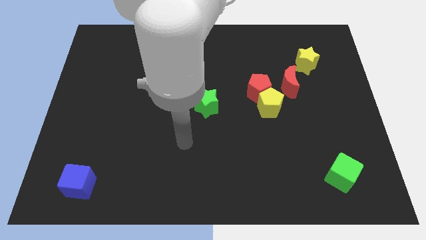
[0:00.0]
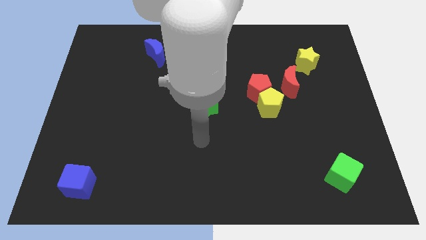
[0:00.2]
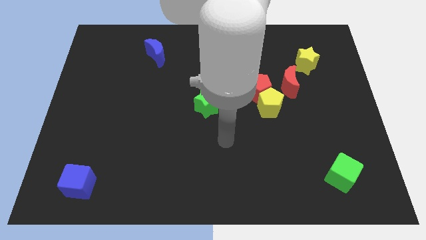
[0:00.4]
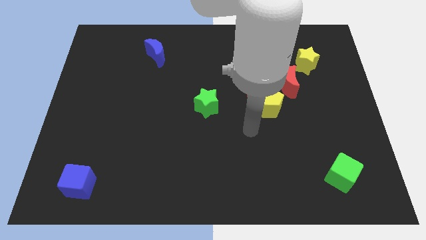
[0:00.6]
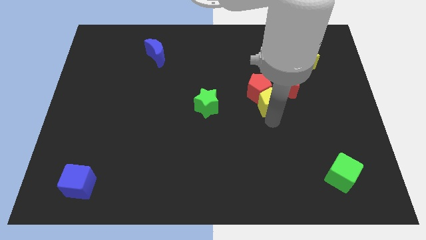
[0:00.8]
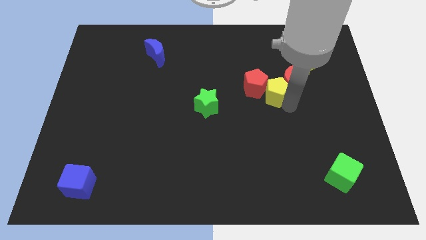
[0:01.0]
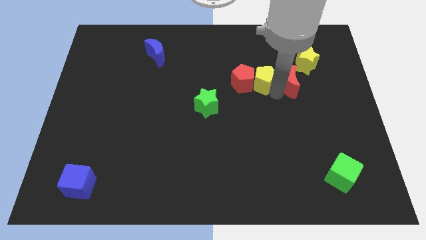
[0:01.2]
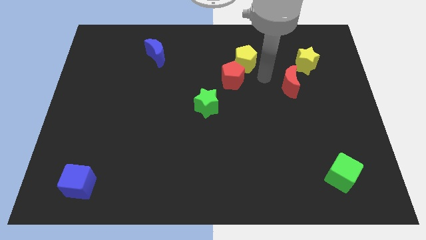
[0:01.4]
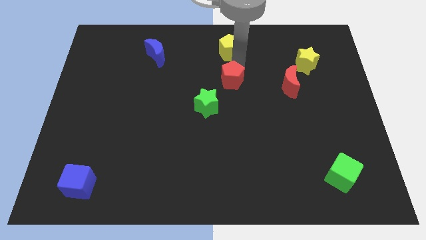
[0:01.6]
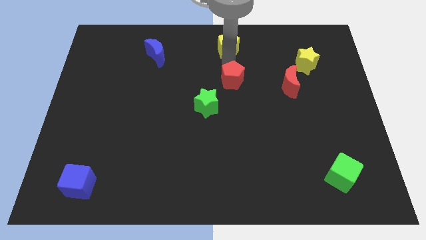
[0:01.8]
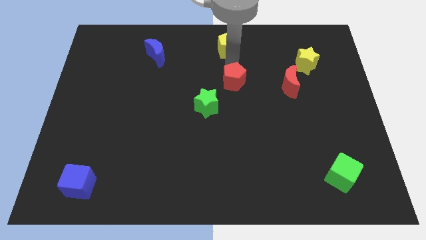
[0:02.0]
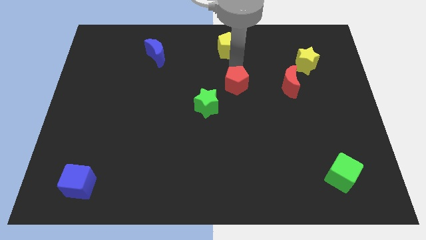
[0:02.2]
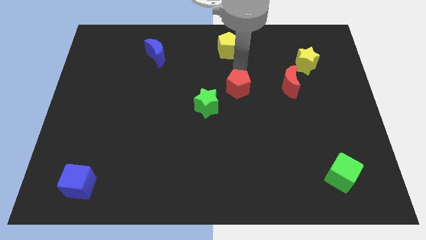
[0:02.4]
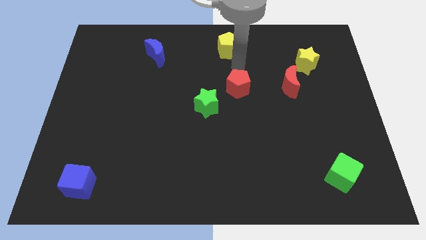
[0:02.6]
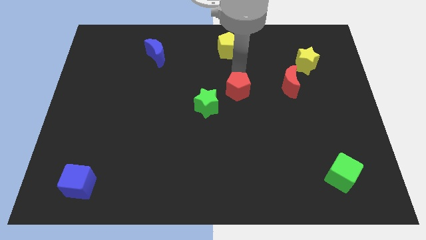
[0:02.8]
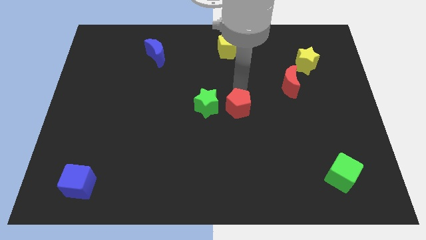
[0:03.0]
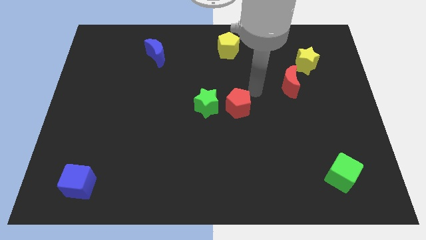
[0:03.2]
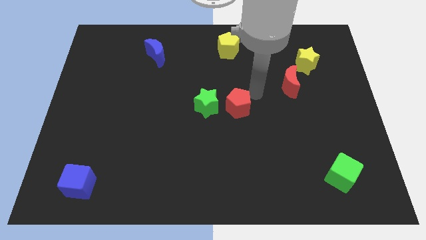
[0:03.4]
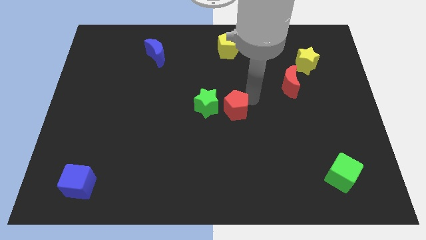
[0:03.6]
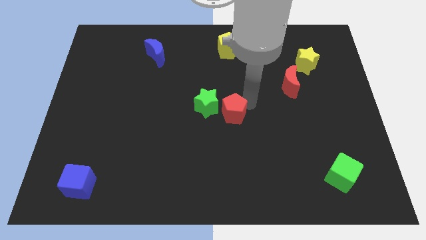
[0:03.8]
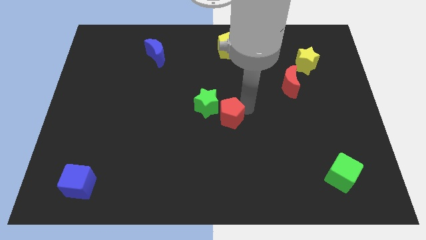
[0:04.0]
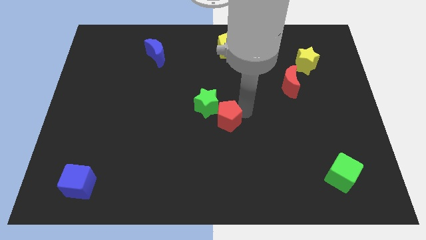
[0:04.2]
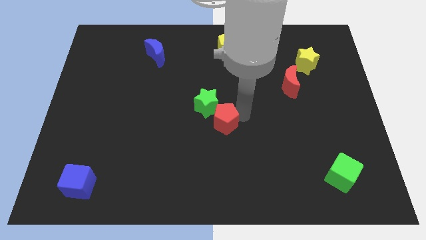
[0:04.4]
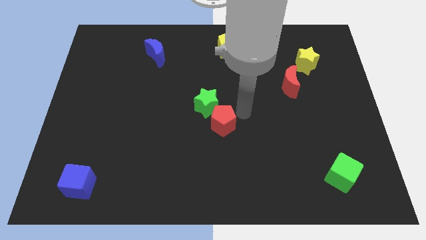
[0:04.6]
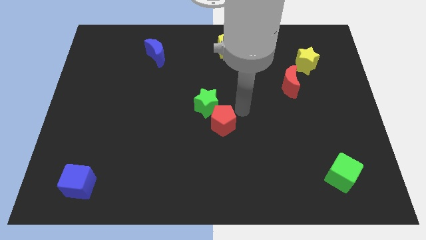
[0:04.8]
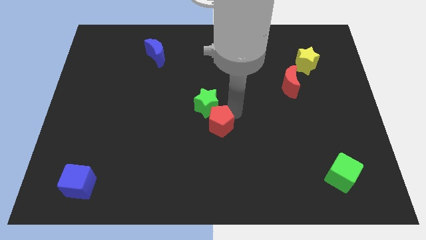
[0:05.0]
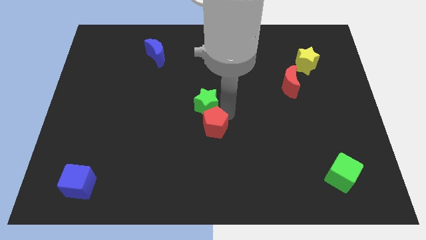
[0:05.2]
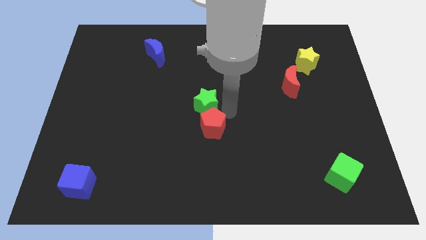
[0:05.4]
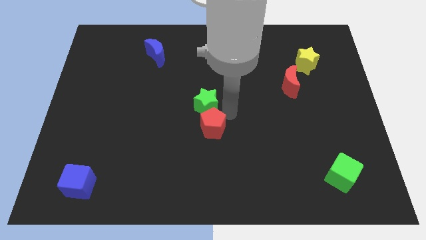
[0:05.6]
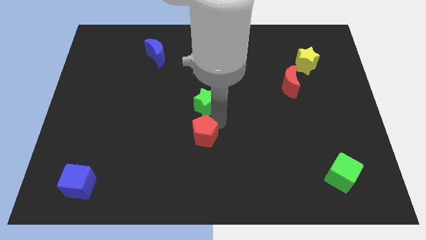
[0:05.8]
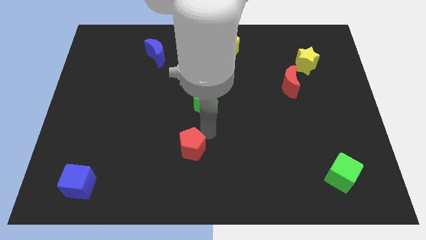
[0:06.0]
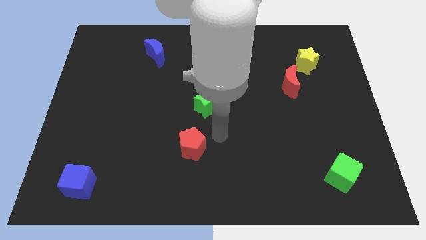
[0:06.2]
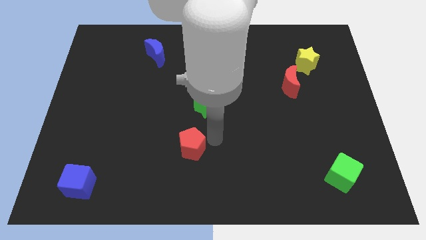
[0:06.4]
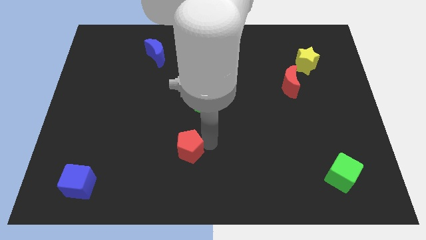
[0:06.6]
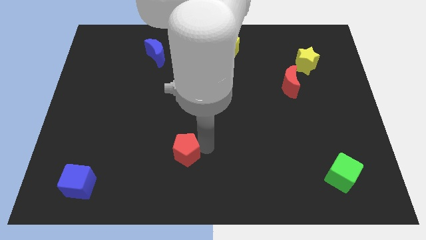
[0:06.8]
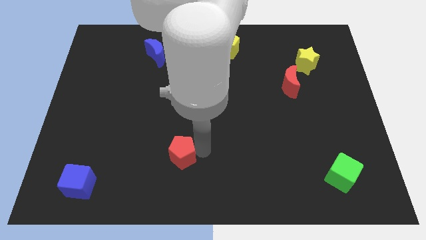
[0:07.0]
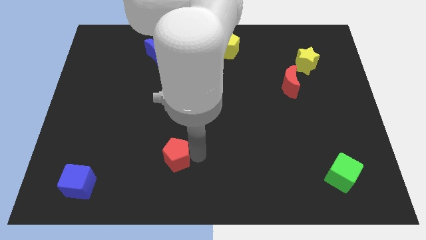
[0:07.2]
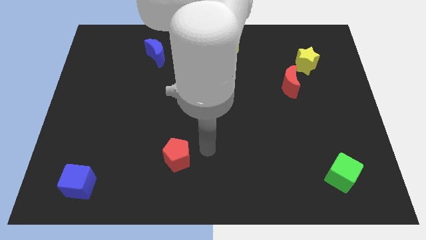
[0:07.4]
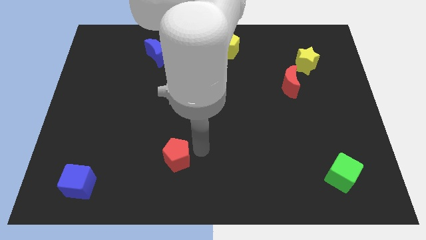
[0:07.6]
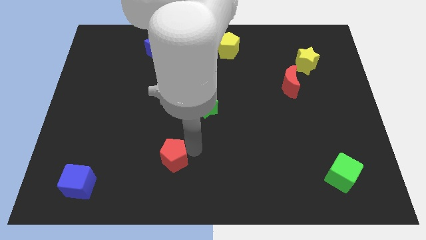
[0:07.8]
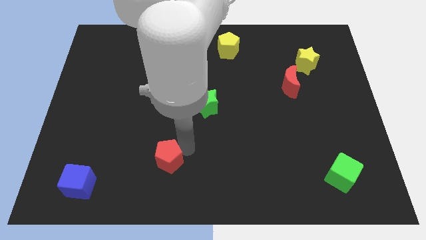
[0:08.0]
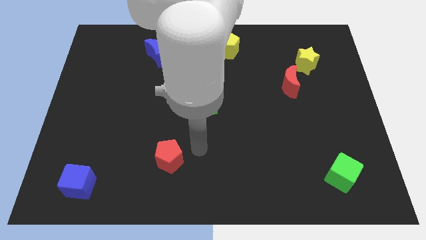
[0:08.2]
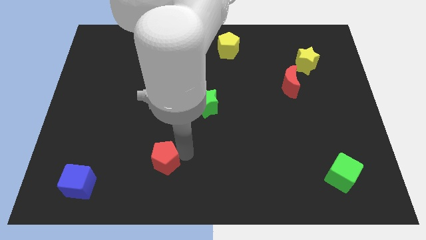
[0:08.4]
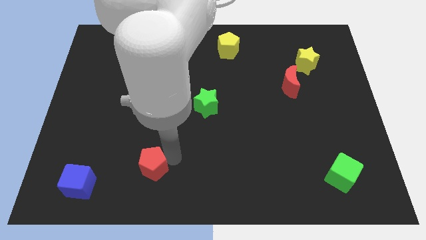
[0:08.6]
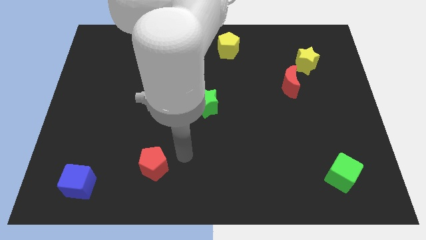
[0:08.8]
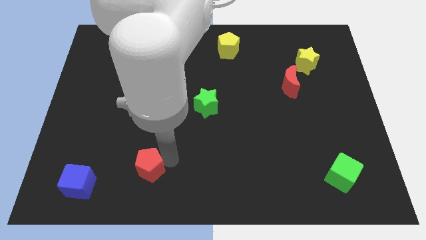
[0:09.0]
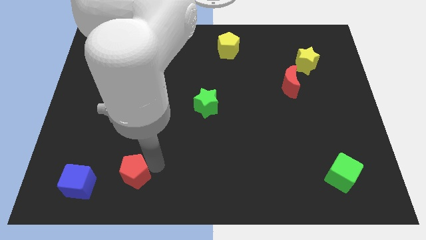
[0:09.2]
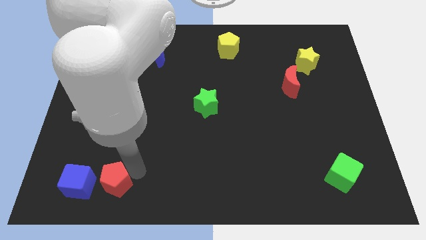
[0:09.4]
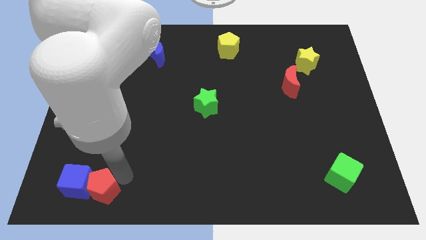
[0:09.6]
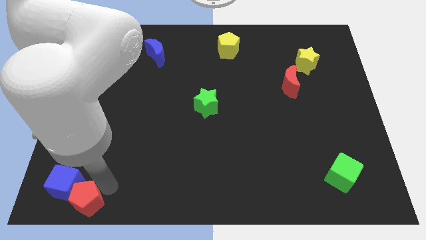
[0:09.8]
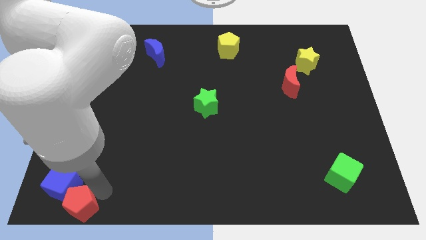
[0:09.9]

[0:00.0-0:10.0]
push the red pentagon to the bottom left of the board
